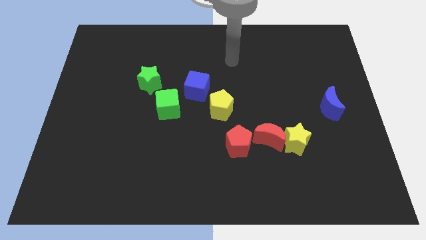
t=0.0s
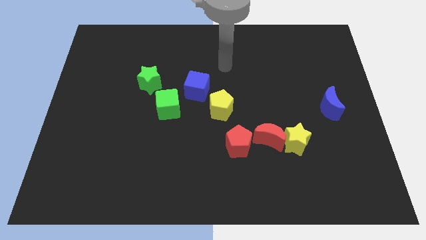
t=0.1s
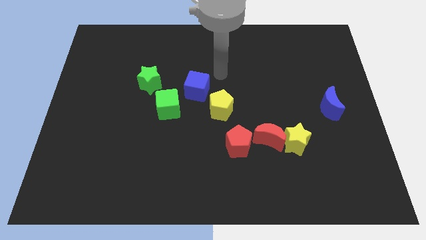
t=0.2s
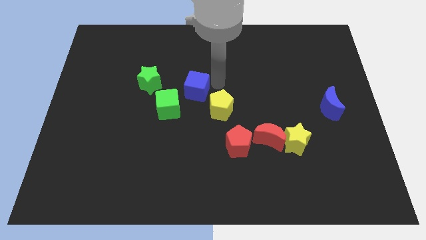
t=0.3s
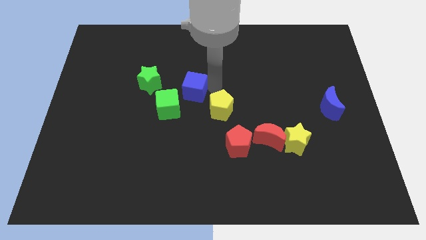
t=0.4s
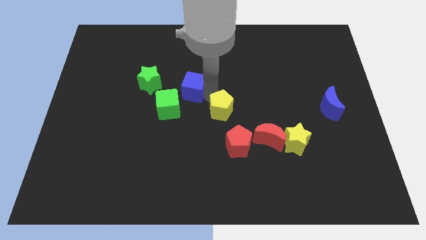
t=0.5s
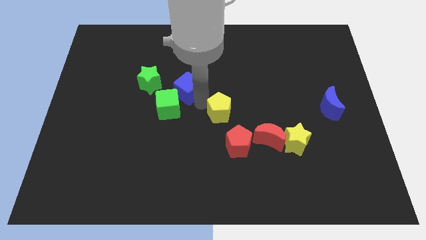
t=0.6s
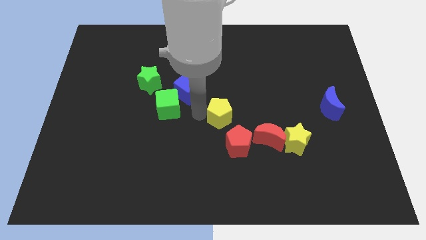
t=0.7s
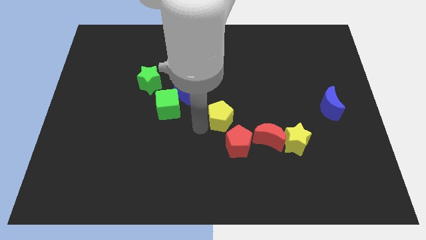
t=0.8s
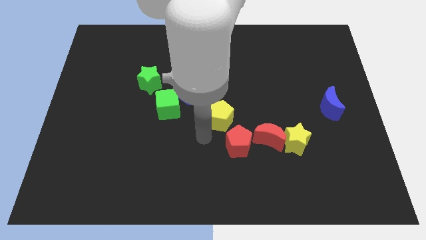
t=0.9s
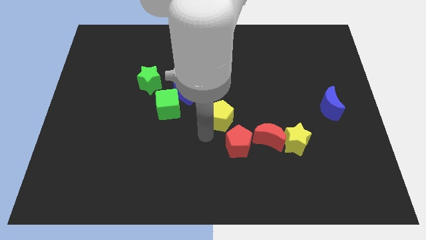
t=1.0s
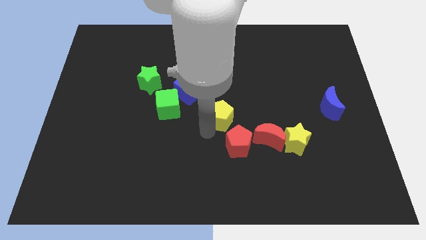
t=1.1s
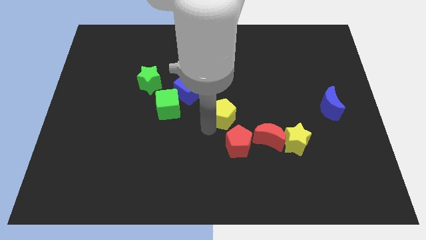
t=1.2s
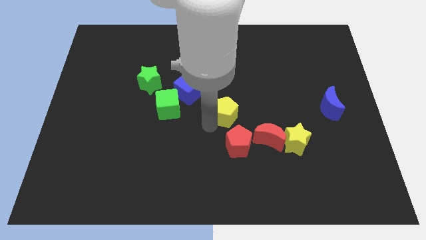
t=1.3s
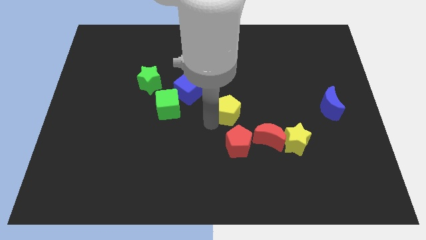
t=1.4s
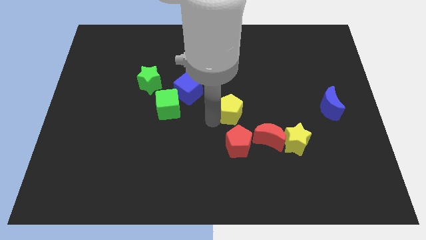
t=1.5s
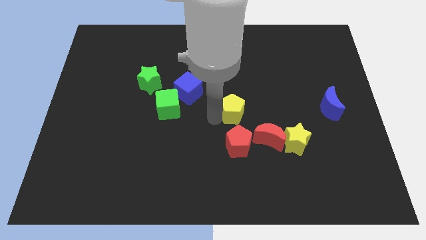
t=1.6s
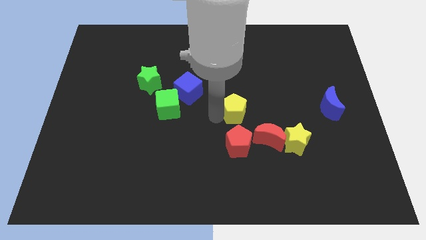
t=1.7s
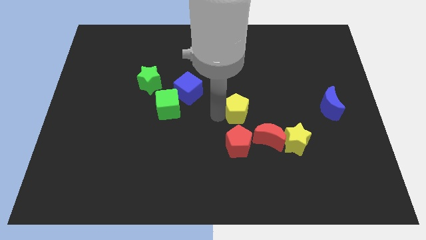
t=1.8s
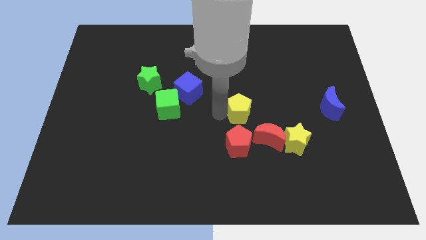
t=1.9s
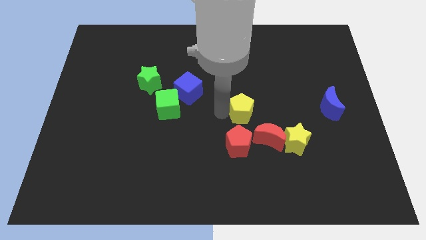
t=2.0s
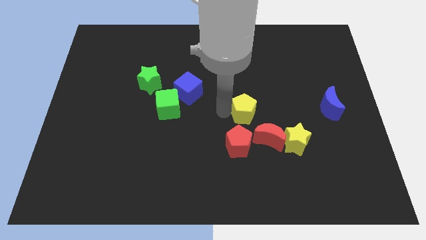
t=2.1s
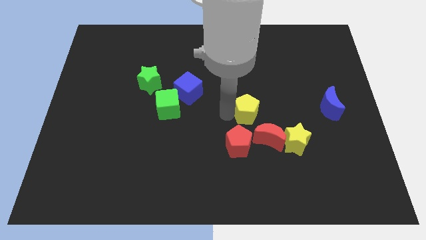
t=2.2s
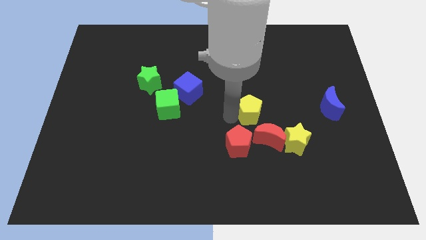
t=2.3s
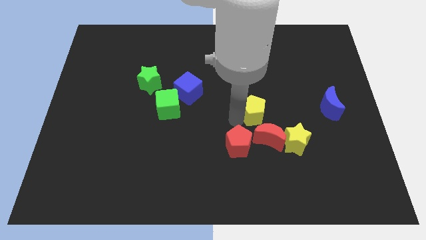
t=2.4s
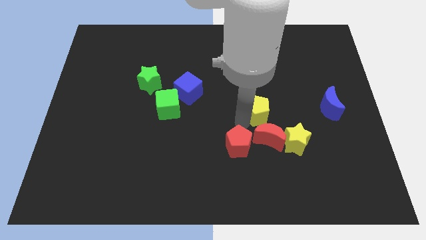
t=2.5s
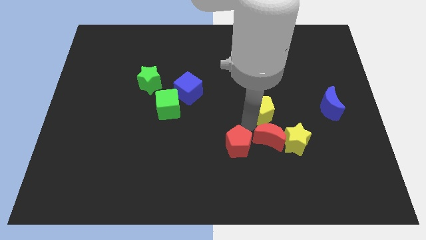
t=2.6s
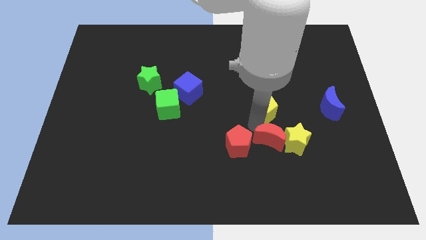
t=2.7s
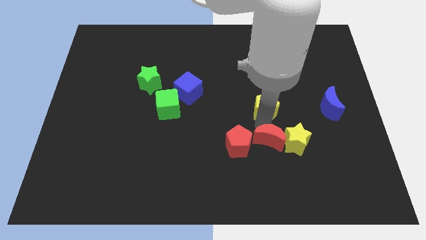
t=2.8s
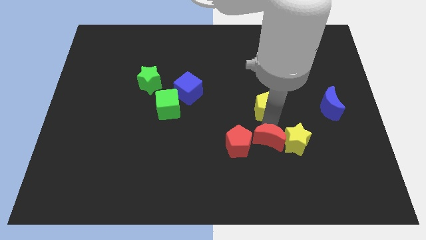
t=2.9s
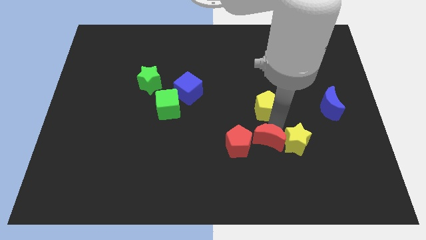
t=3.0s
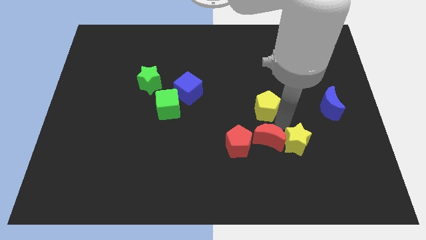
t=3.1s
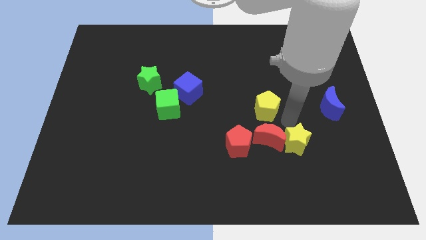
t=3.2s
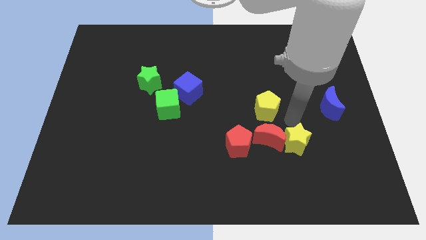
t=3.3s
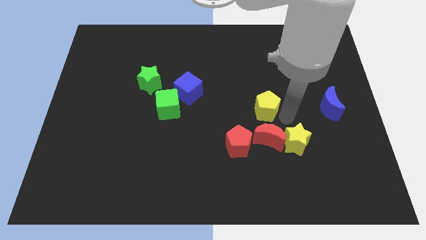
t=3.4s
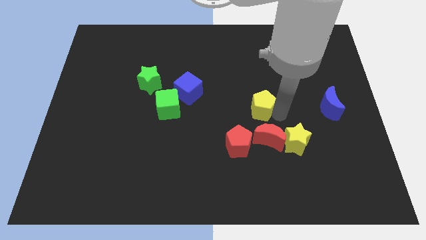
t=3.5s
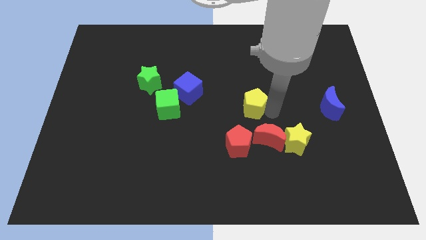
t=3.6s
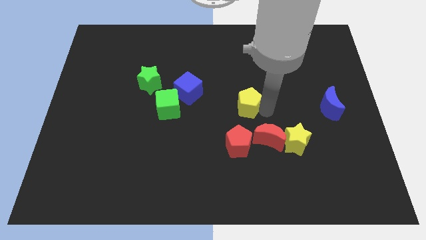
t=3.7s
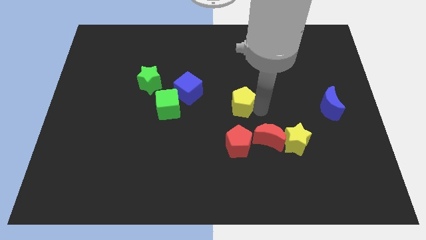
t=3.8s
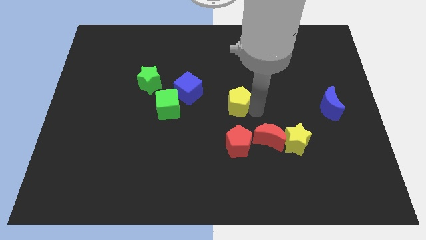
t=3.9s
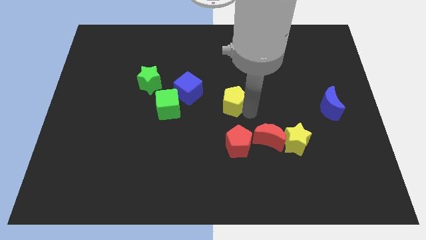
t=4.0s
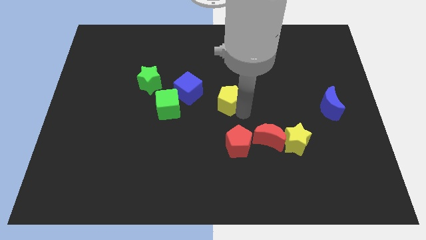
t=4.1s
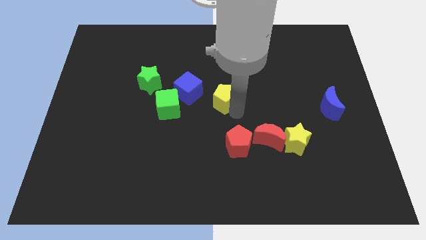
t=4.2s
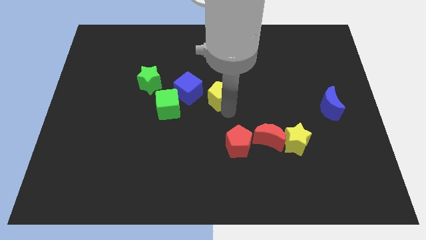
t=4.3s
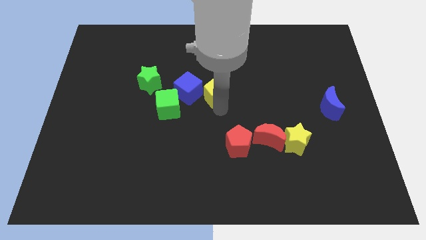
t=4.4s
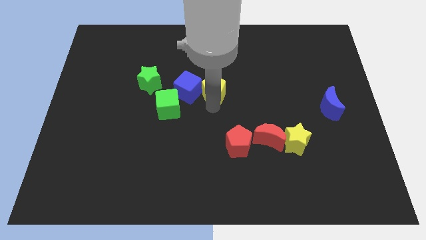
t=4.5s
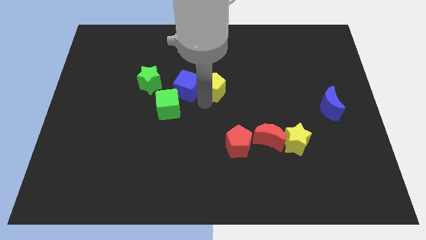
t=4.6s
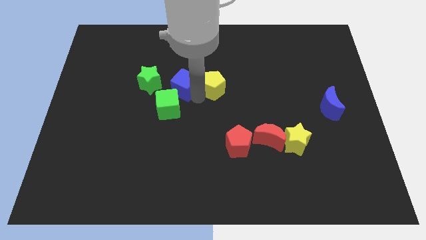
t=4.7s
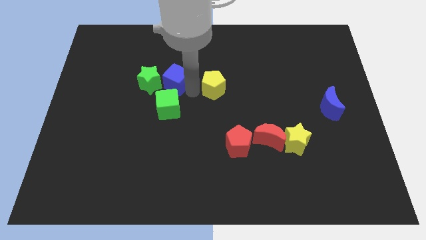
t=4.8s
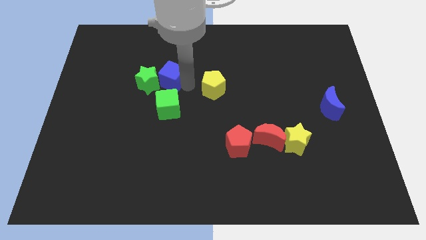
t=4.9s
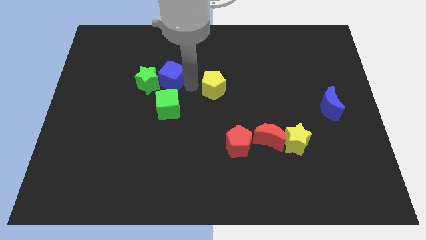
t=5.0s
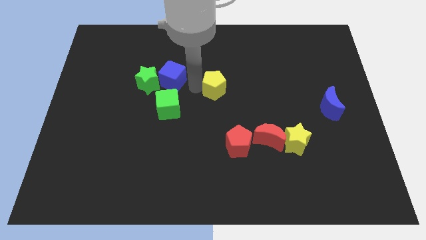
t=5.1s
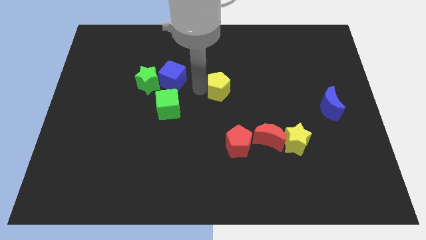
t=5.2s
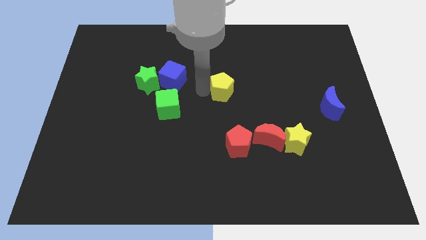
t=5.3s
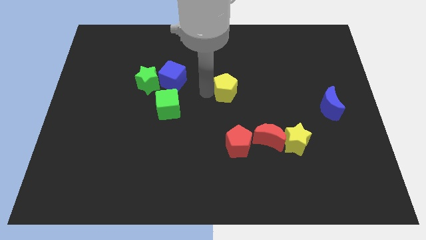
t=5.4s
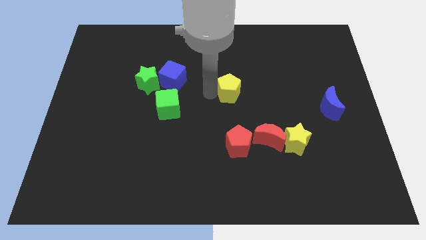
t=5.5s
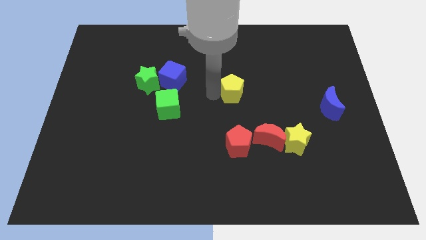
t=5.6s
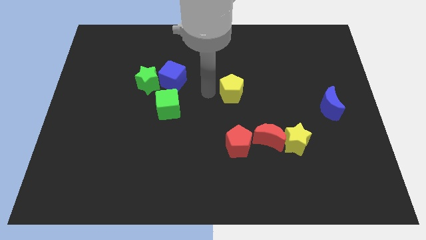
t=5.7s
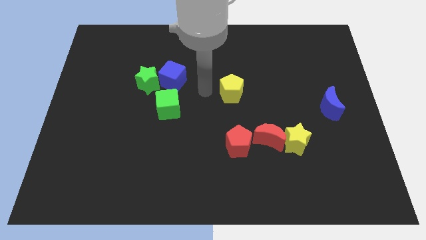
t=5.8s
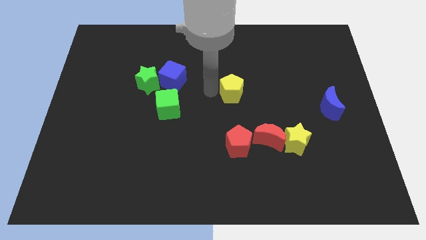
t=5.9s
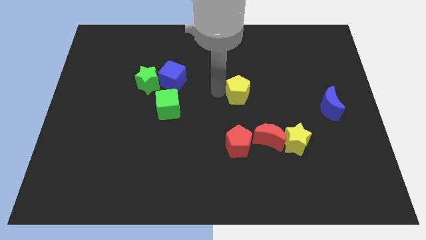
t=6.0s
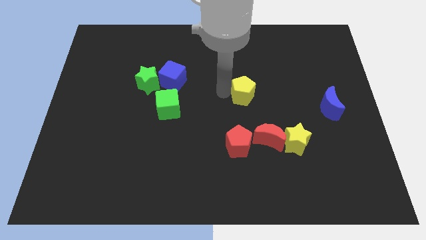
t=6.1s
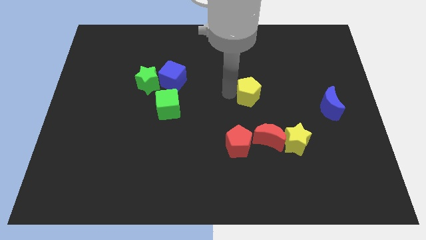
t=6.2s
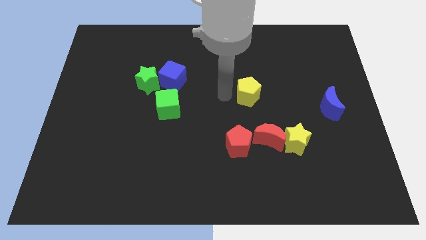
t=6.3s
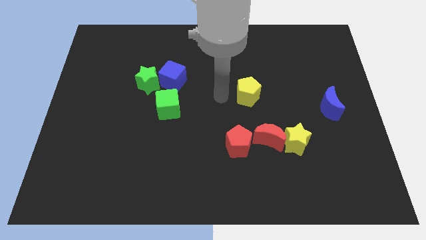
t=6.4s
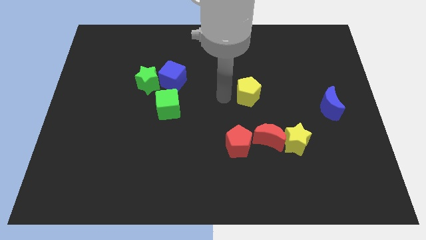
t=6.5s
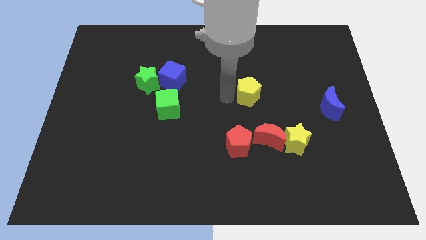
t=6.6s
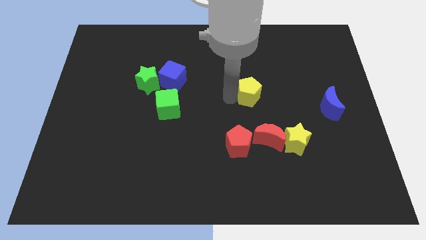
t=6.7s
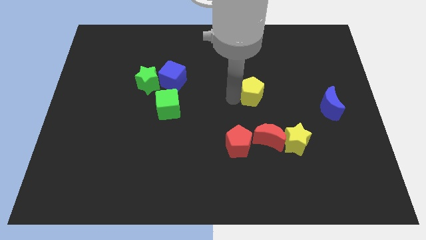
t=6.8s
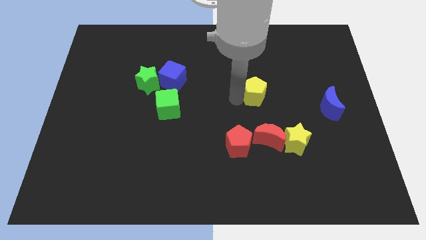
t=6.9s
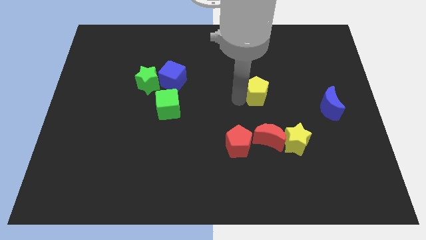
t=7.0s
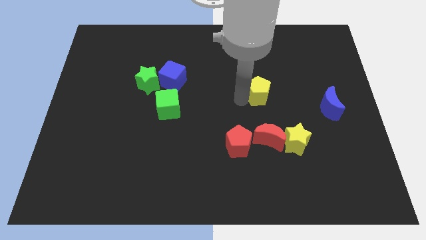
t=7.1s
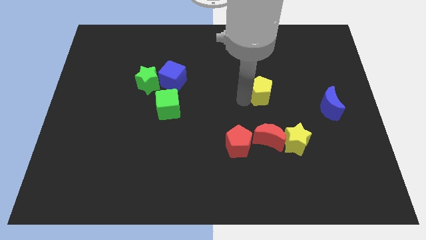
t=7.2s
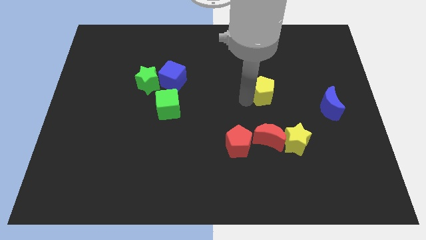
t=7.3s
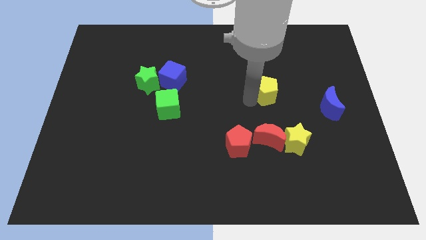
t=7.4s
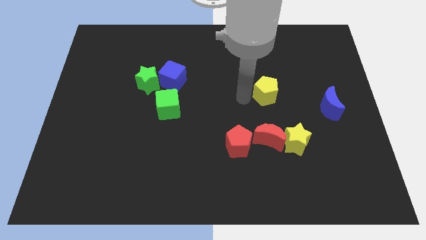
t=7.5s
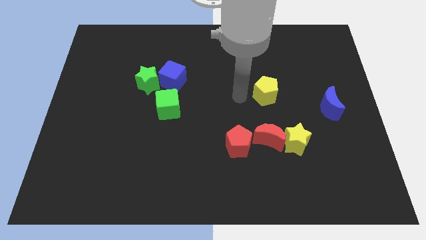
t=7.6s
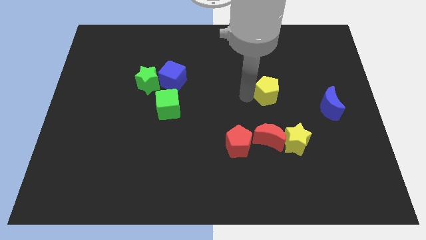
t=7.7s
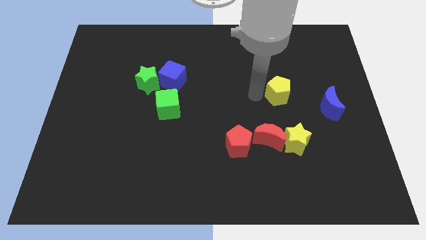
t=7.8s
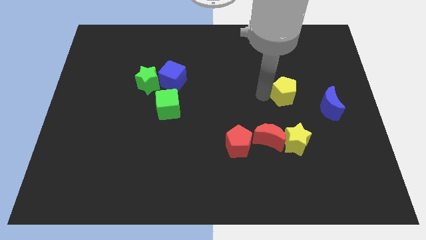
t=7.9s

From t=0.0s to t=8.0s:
push the yellow pentagon to the top left side of the blue moon
